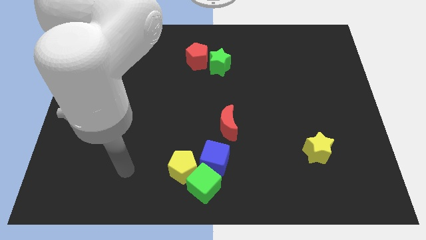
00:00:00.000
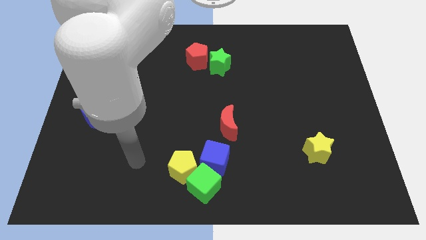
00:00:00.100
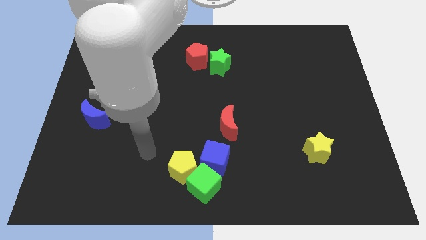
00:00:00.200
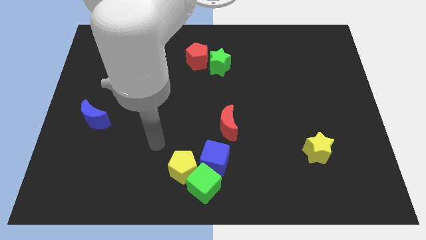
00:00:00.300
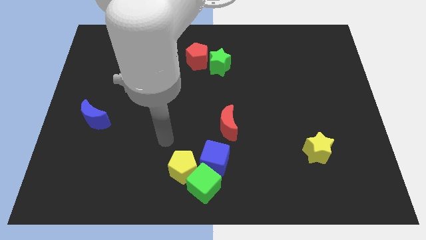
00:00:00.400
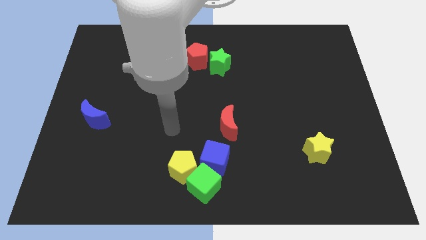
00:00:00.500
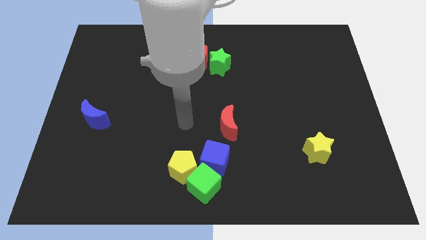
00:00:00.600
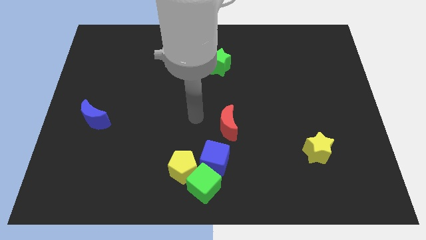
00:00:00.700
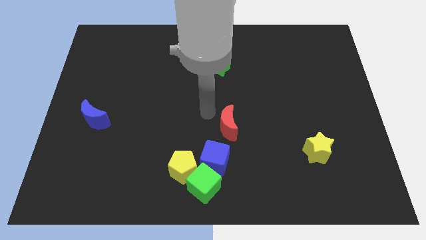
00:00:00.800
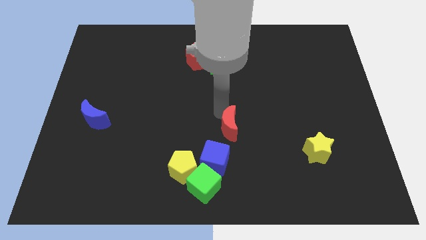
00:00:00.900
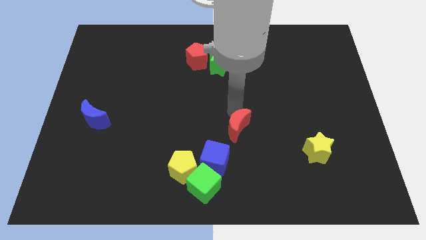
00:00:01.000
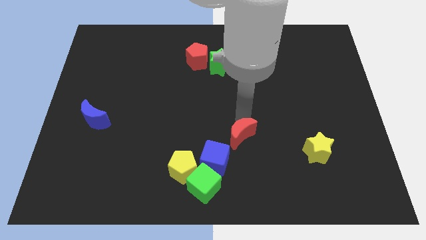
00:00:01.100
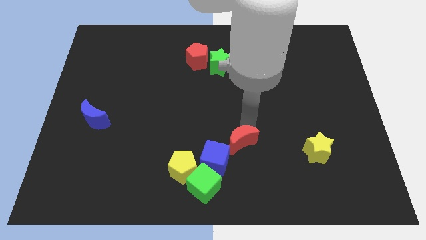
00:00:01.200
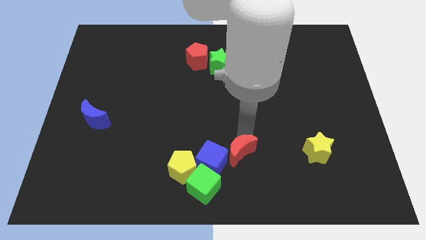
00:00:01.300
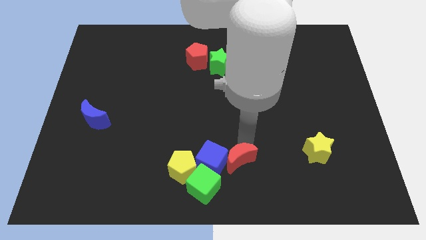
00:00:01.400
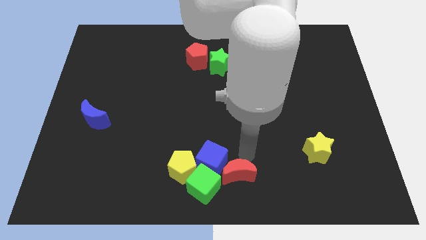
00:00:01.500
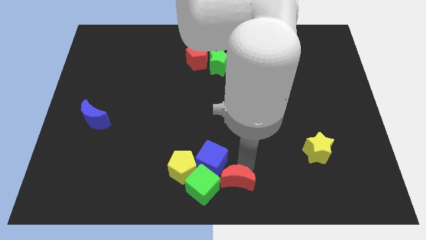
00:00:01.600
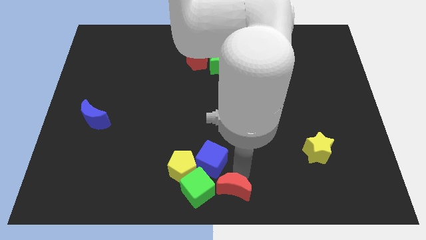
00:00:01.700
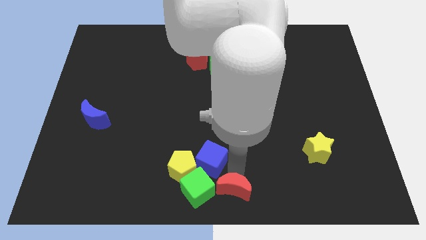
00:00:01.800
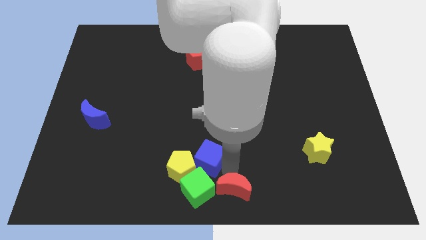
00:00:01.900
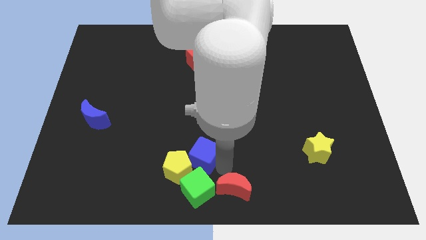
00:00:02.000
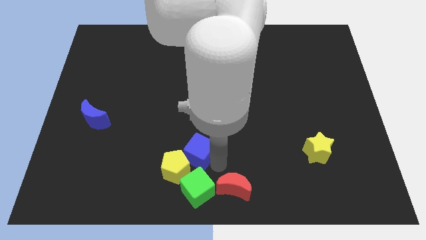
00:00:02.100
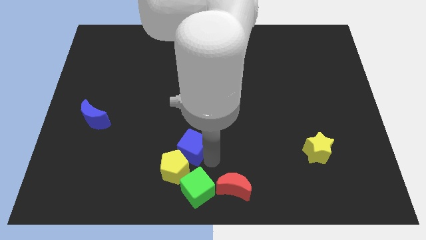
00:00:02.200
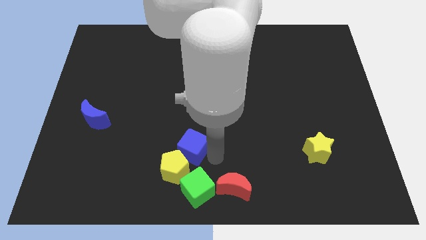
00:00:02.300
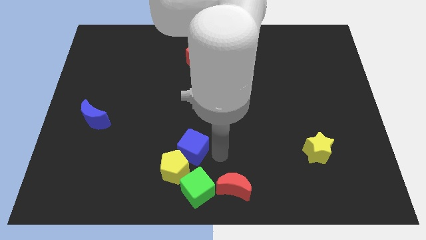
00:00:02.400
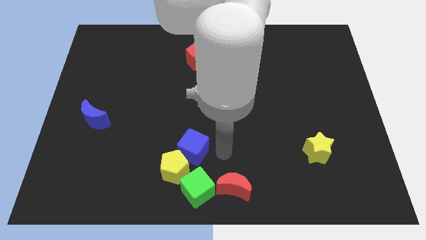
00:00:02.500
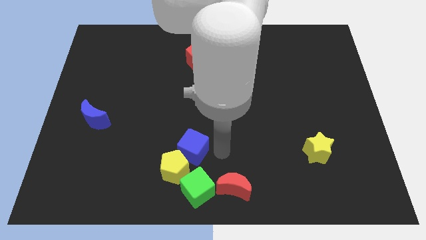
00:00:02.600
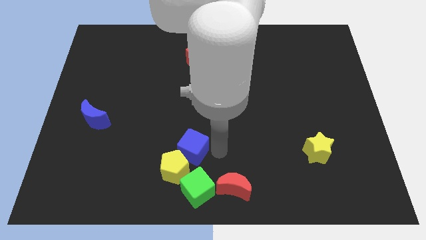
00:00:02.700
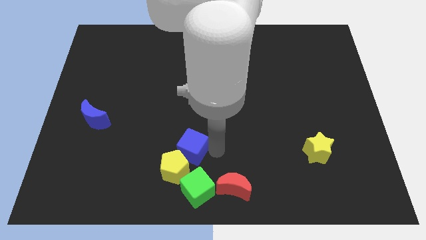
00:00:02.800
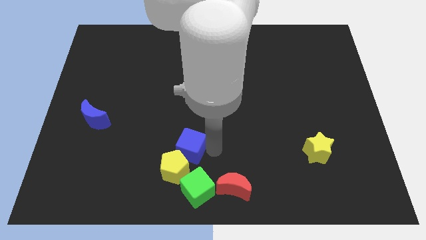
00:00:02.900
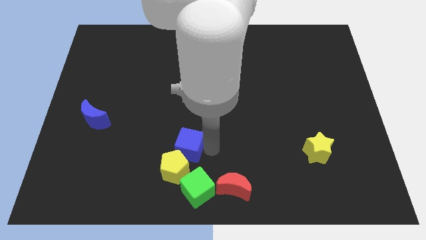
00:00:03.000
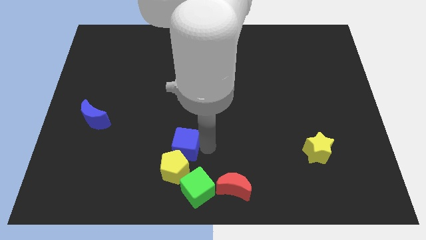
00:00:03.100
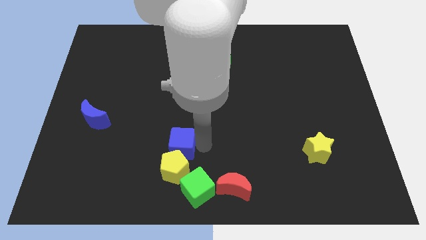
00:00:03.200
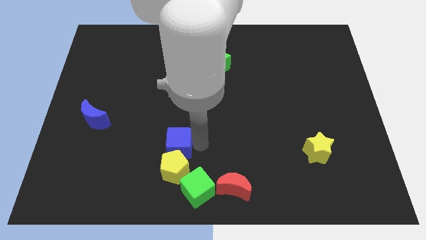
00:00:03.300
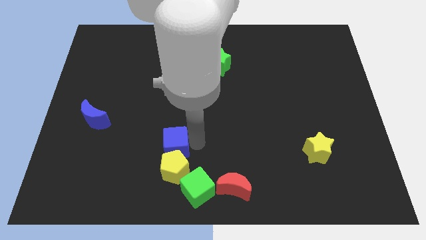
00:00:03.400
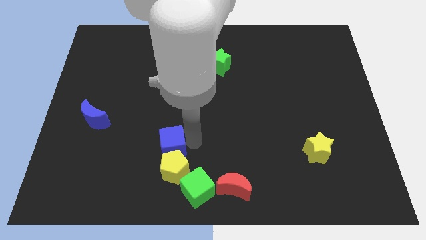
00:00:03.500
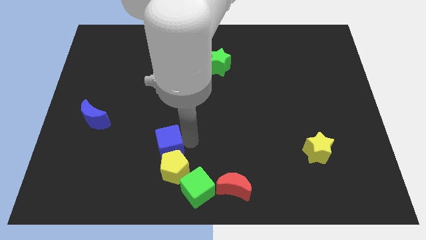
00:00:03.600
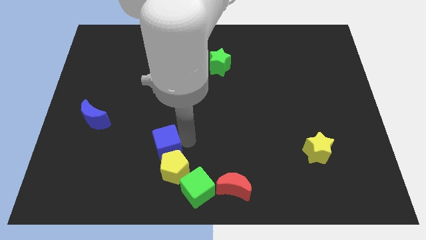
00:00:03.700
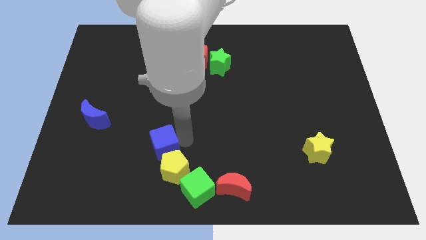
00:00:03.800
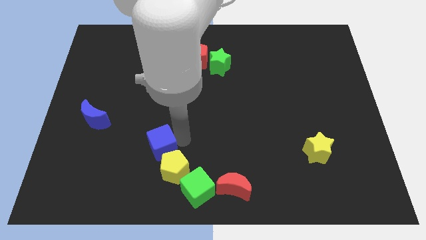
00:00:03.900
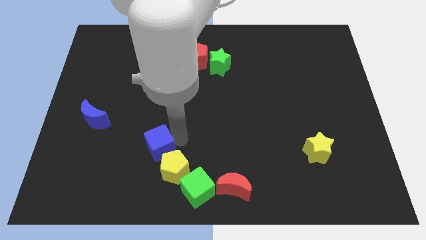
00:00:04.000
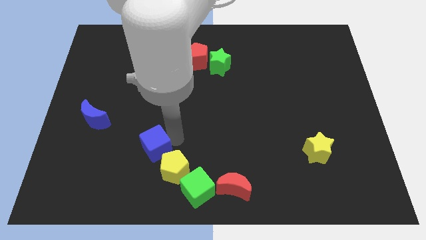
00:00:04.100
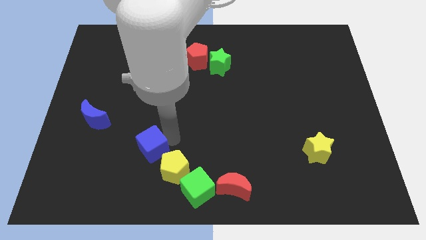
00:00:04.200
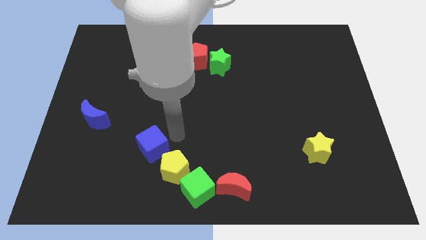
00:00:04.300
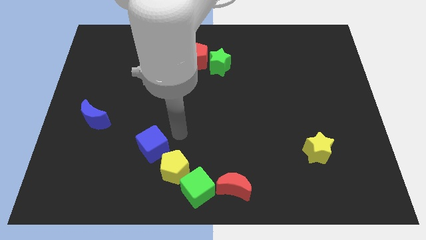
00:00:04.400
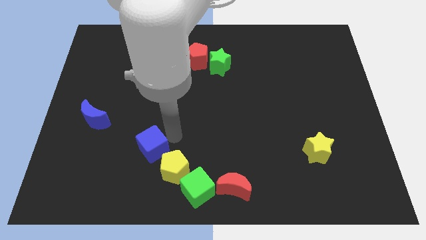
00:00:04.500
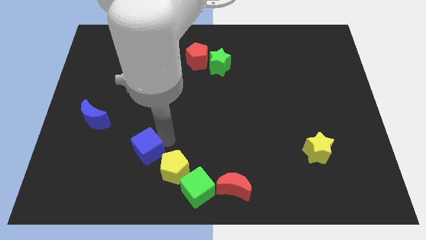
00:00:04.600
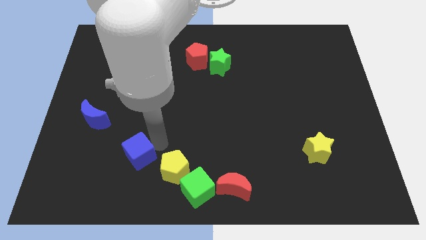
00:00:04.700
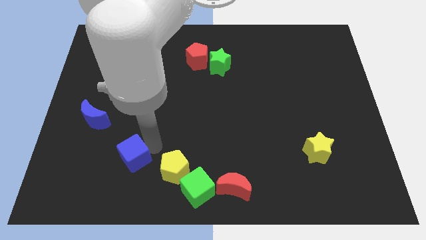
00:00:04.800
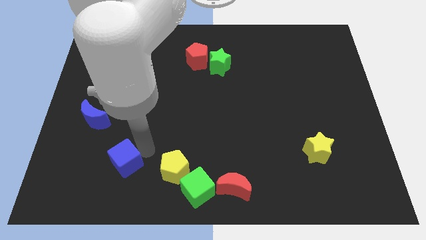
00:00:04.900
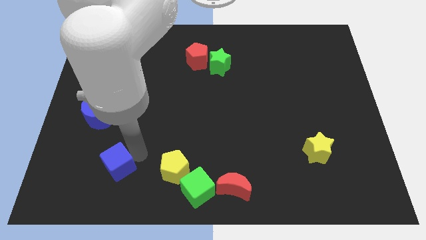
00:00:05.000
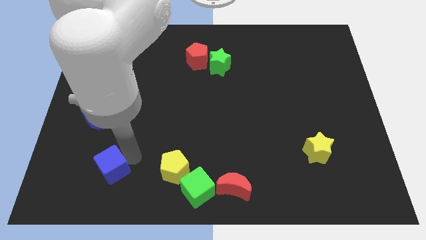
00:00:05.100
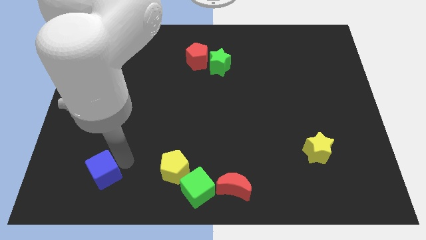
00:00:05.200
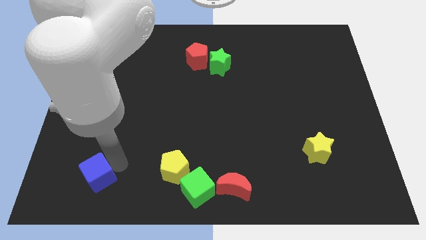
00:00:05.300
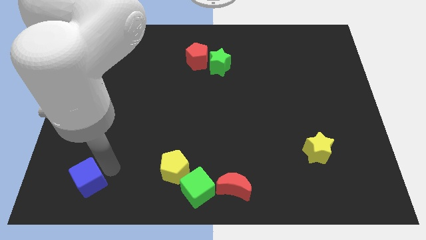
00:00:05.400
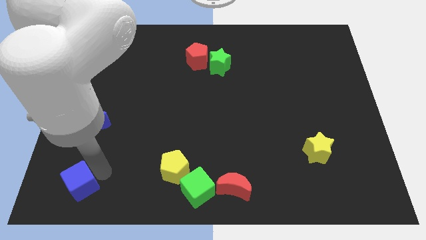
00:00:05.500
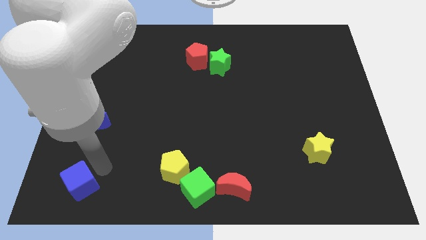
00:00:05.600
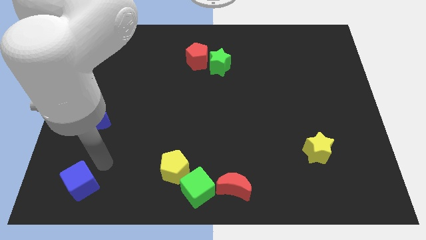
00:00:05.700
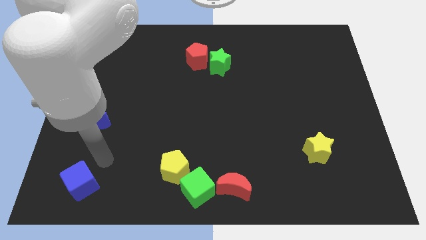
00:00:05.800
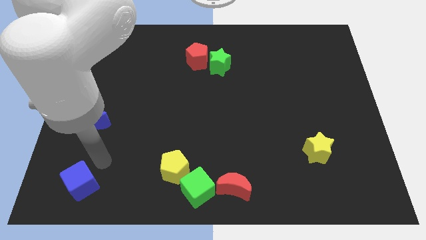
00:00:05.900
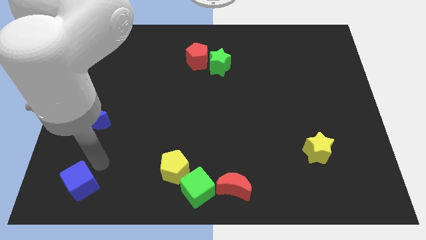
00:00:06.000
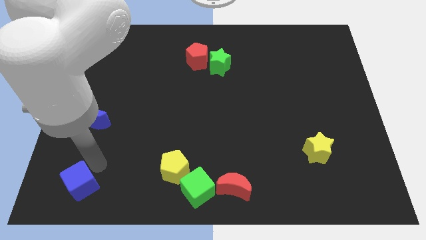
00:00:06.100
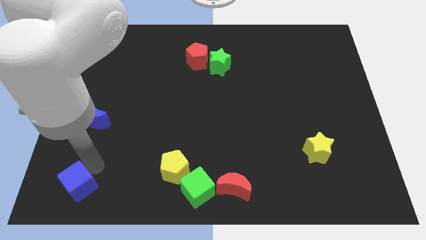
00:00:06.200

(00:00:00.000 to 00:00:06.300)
push the blue cube to the lower left corner

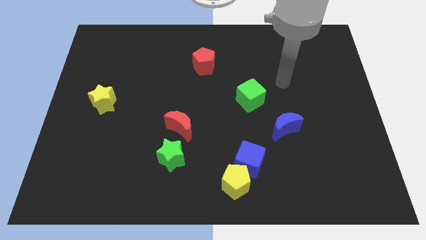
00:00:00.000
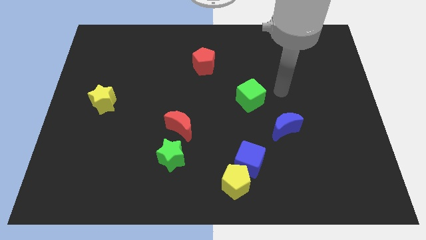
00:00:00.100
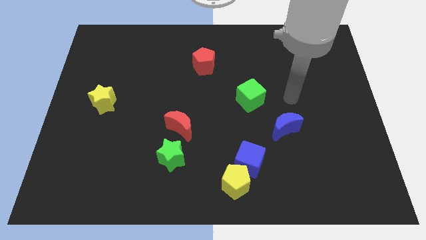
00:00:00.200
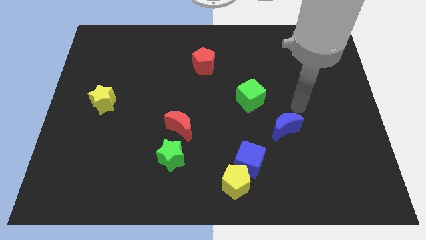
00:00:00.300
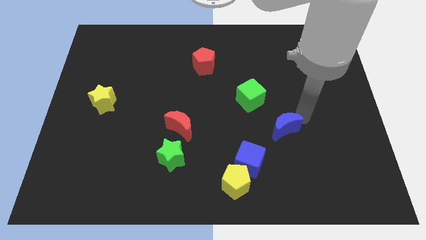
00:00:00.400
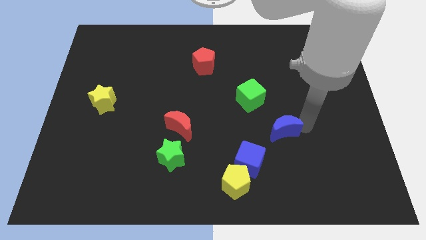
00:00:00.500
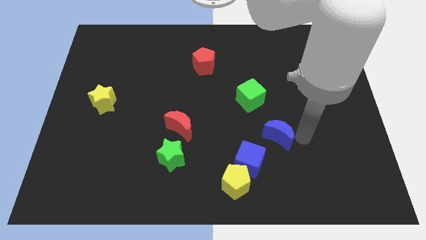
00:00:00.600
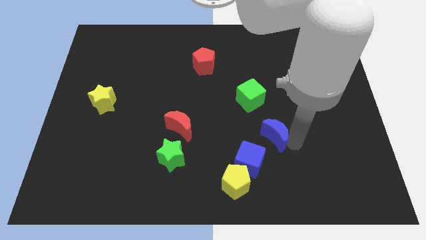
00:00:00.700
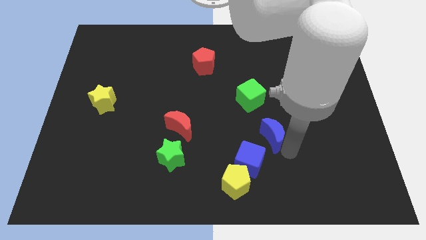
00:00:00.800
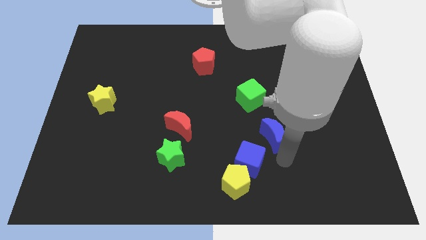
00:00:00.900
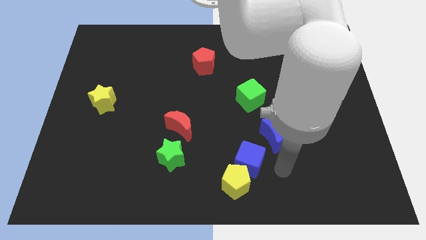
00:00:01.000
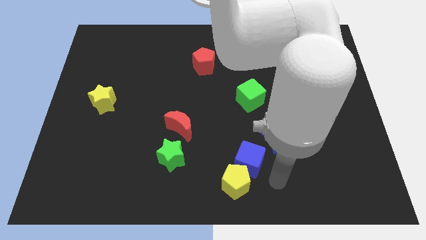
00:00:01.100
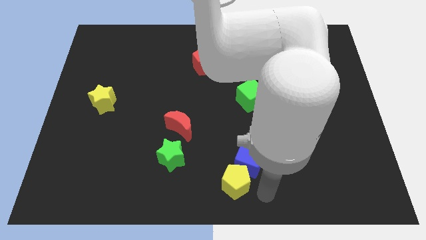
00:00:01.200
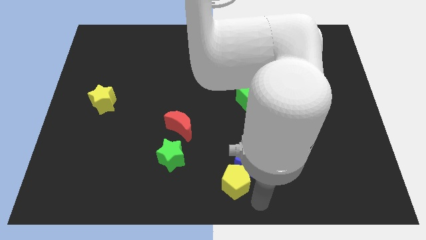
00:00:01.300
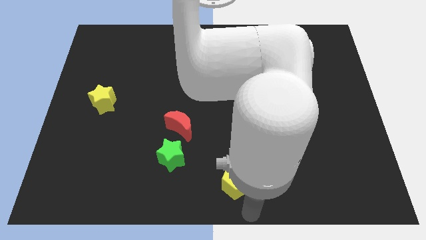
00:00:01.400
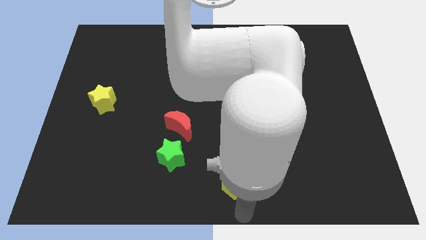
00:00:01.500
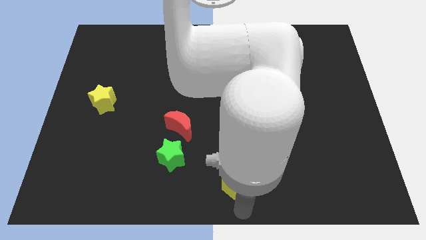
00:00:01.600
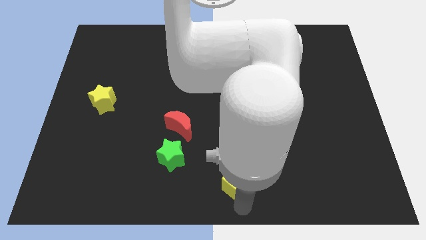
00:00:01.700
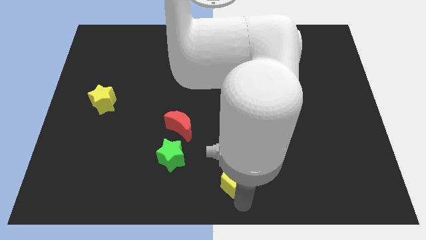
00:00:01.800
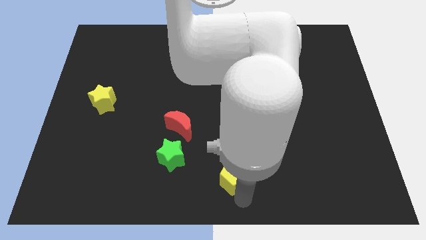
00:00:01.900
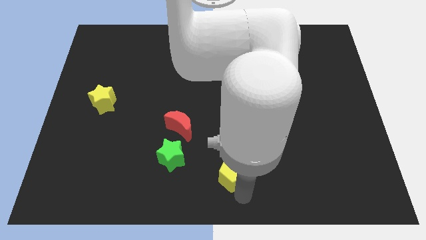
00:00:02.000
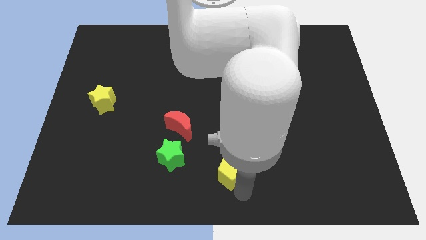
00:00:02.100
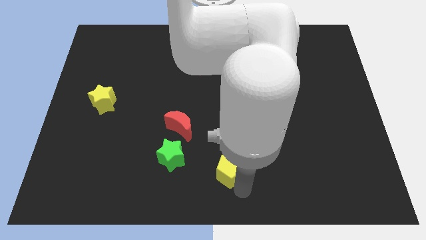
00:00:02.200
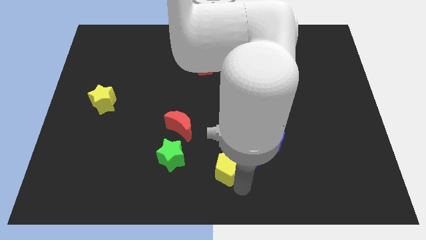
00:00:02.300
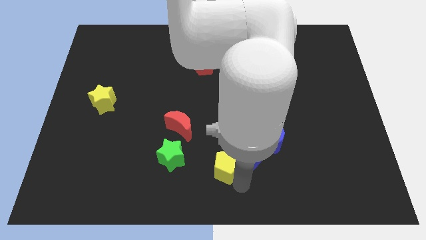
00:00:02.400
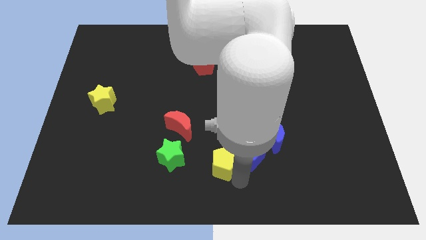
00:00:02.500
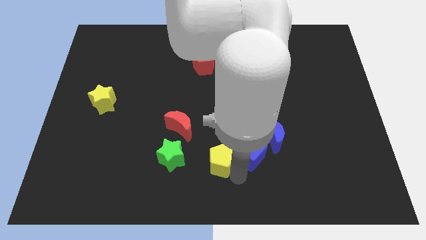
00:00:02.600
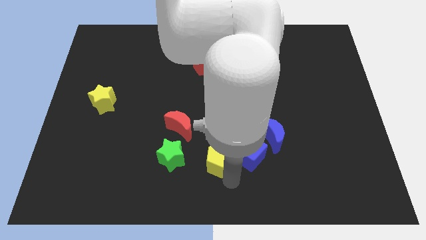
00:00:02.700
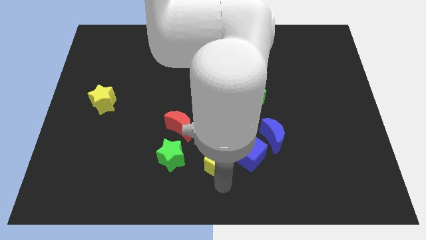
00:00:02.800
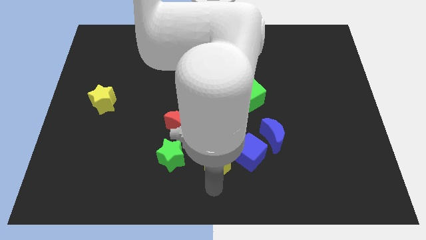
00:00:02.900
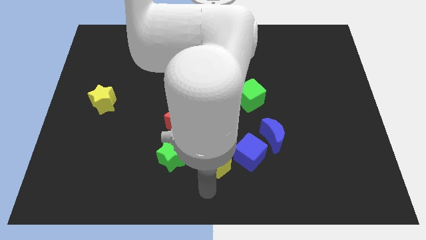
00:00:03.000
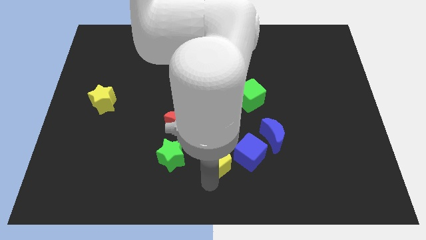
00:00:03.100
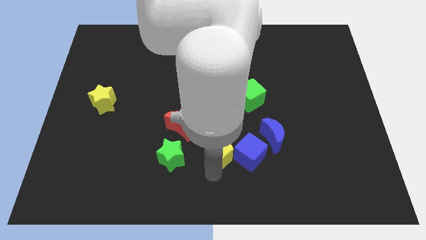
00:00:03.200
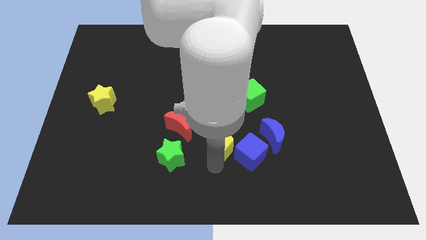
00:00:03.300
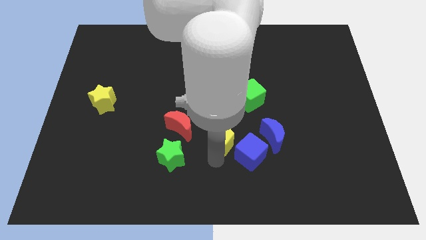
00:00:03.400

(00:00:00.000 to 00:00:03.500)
slide the yellow pentagon to the middle of the board
